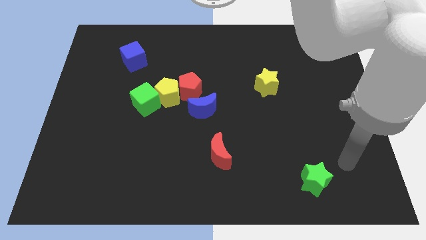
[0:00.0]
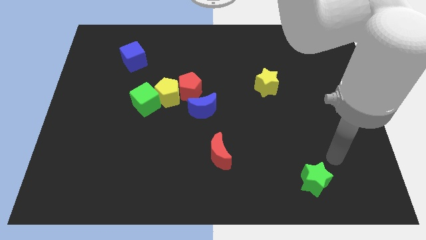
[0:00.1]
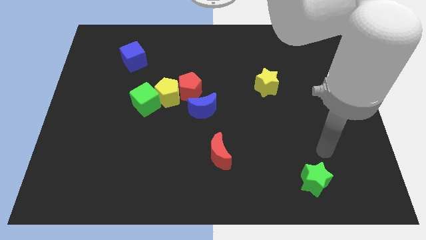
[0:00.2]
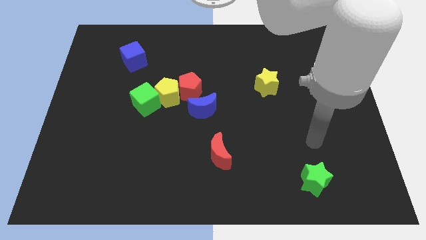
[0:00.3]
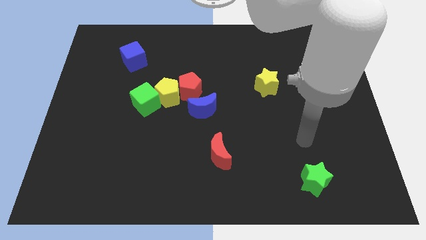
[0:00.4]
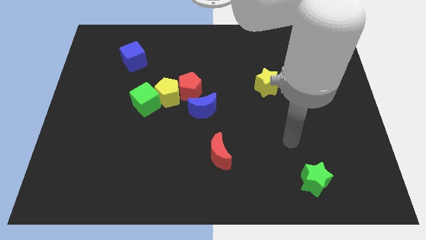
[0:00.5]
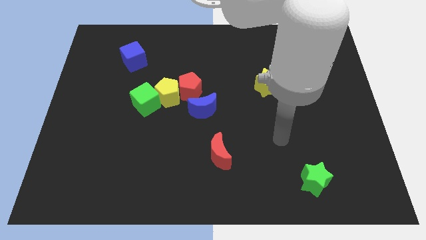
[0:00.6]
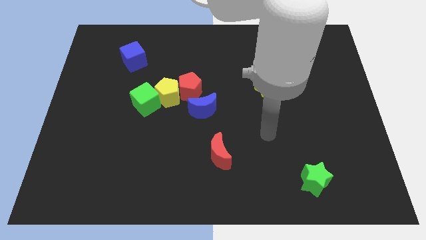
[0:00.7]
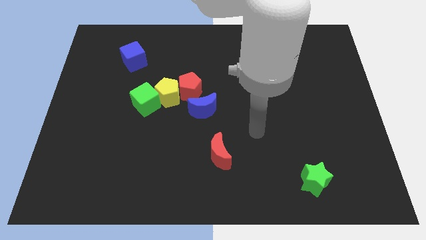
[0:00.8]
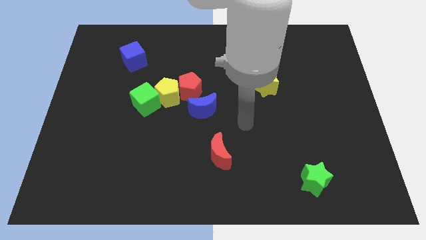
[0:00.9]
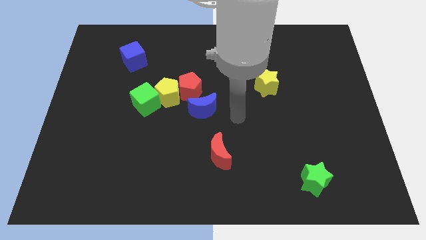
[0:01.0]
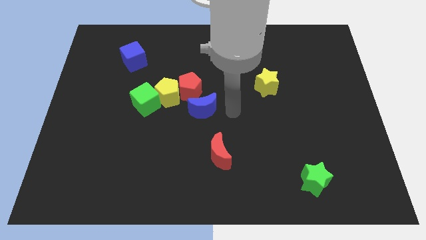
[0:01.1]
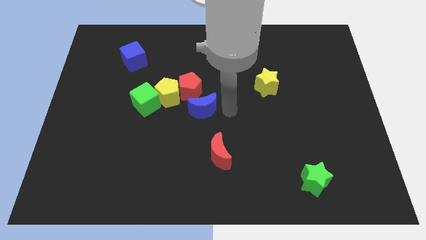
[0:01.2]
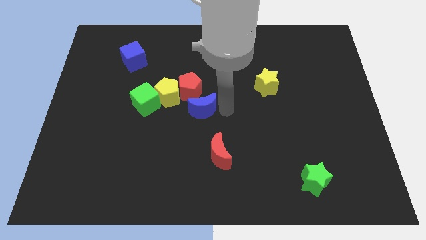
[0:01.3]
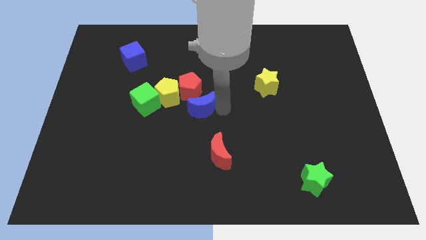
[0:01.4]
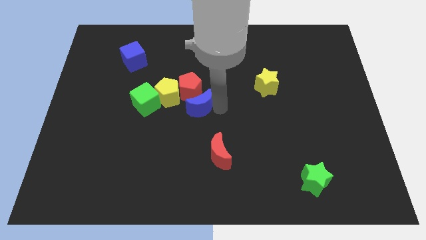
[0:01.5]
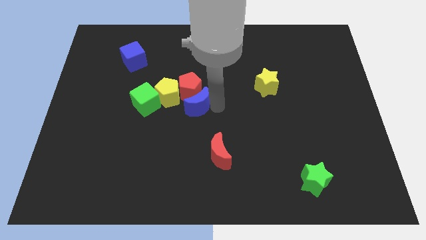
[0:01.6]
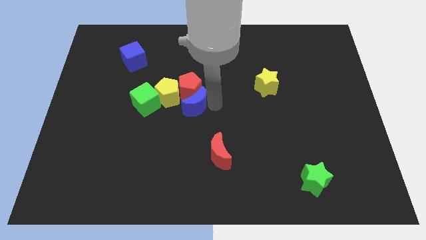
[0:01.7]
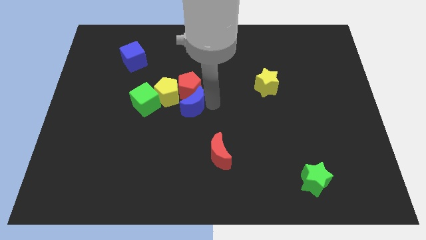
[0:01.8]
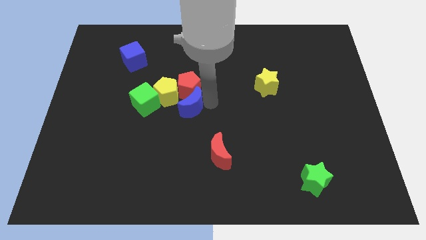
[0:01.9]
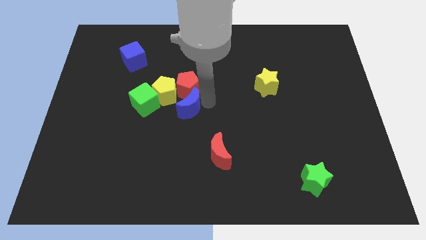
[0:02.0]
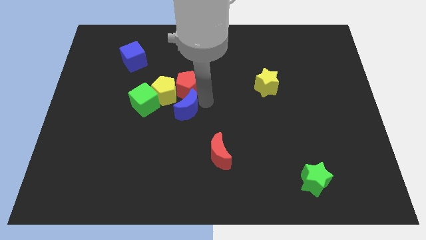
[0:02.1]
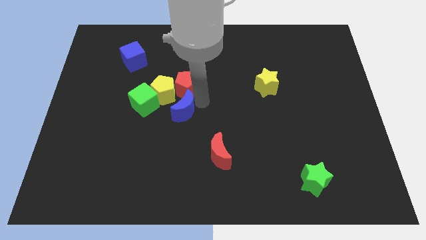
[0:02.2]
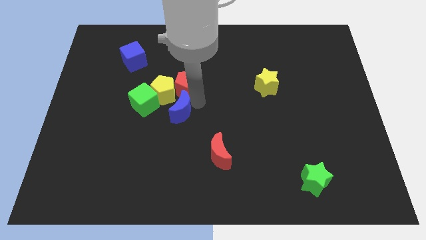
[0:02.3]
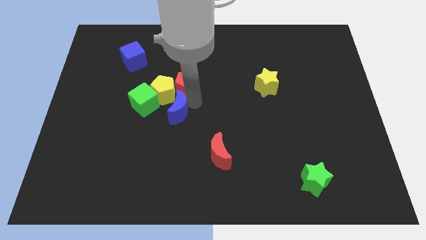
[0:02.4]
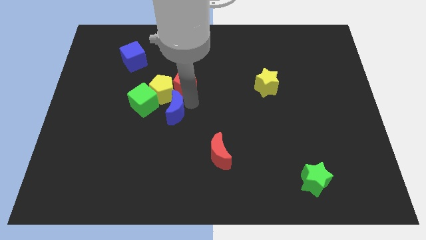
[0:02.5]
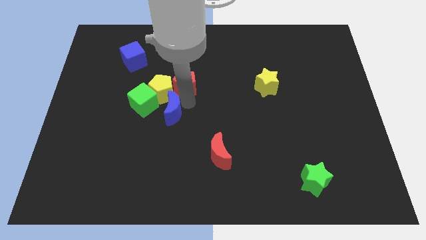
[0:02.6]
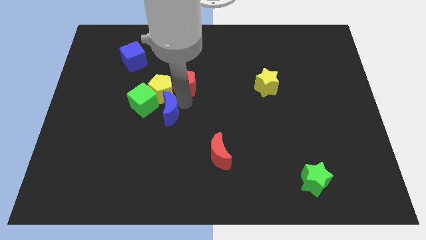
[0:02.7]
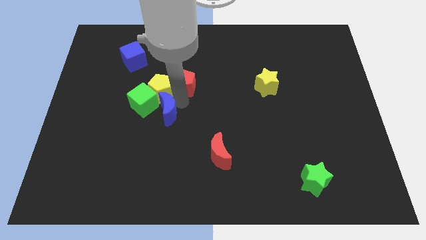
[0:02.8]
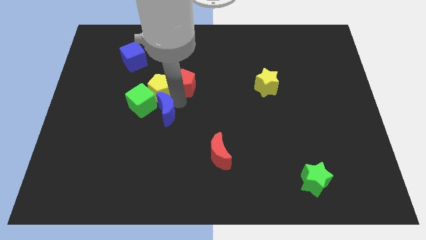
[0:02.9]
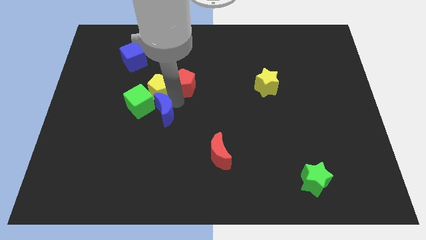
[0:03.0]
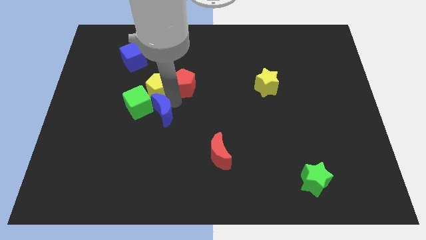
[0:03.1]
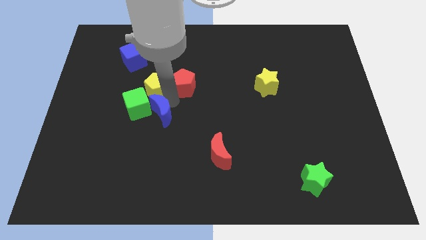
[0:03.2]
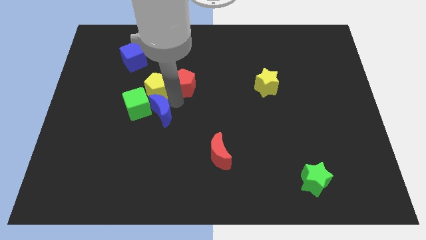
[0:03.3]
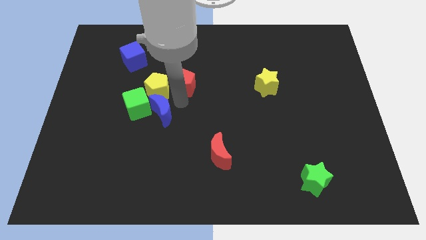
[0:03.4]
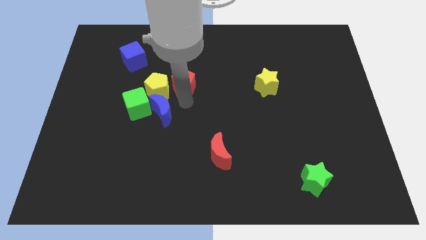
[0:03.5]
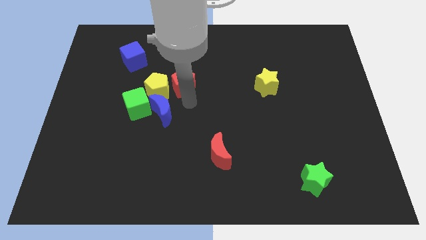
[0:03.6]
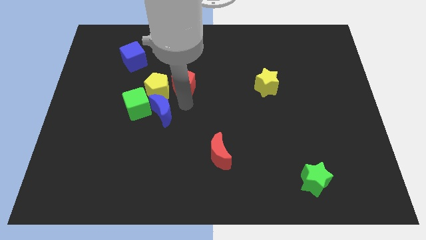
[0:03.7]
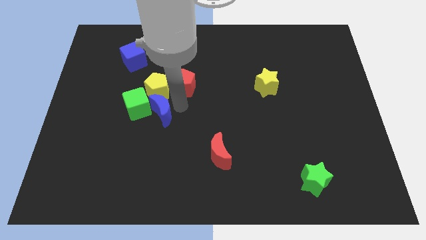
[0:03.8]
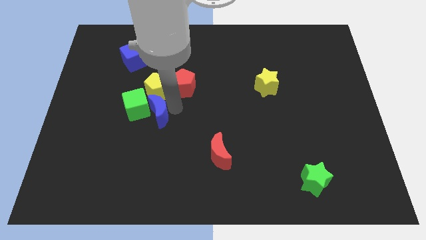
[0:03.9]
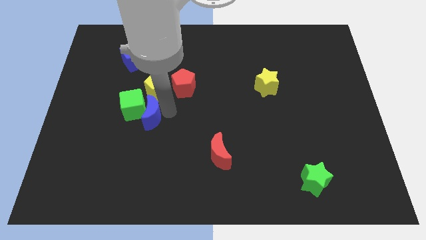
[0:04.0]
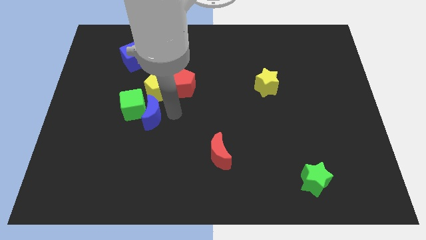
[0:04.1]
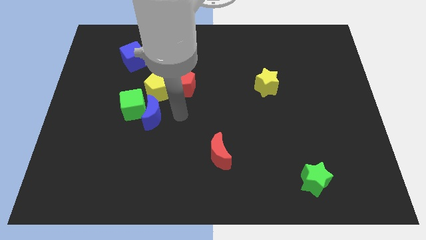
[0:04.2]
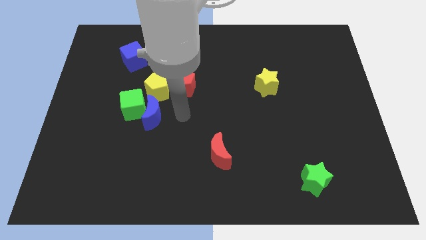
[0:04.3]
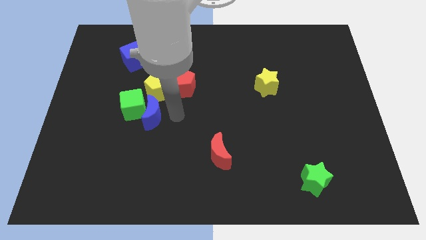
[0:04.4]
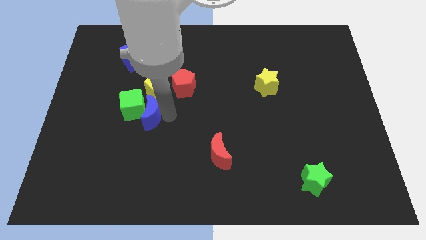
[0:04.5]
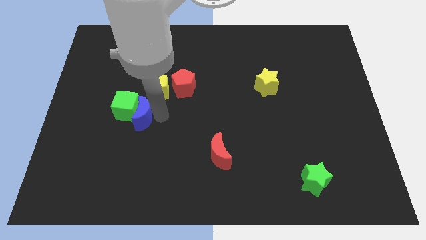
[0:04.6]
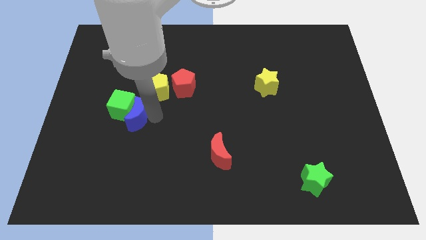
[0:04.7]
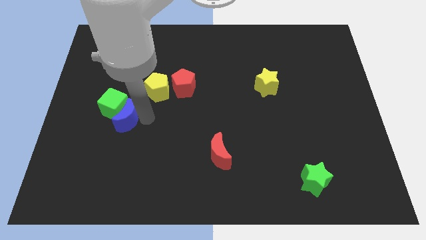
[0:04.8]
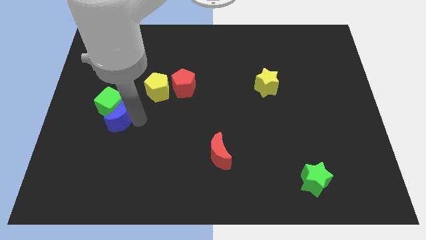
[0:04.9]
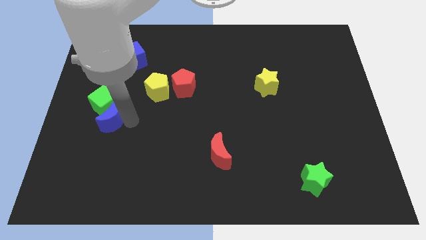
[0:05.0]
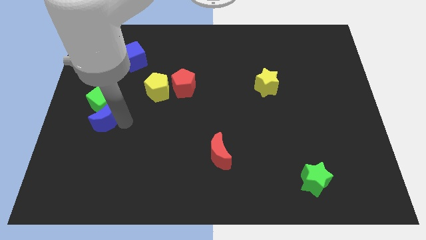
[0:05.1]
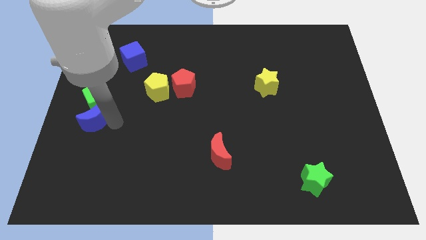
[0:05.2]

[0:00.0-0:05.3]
put the blue moon to the center left

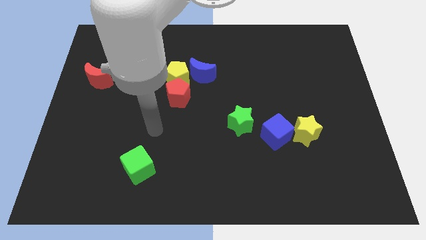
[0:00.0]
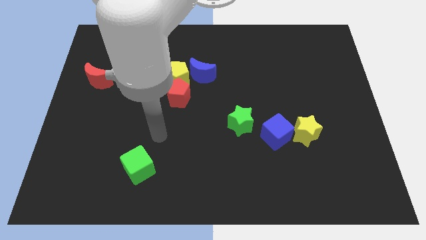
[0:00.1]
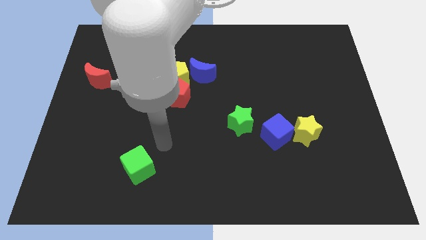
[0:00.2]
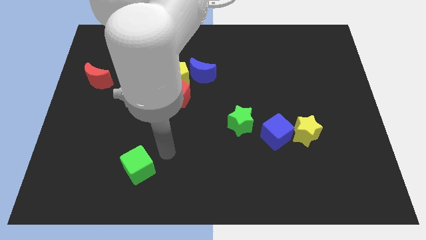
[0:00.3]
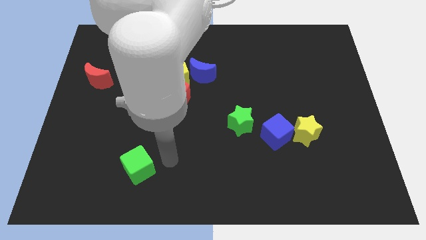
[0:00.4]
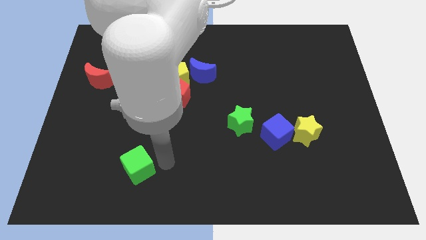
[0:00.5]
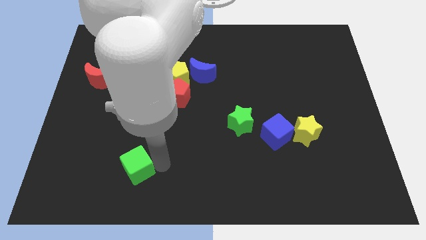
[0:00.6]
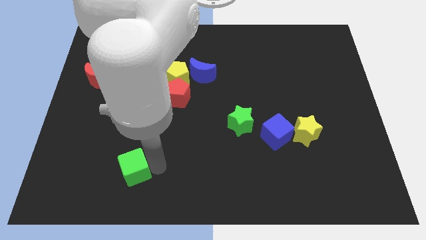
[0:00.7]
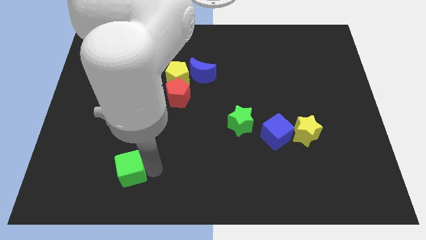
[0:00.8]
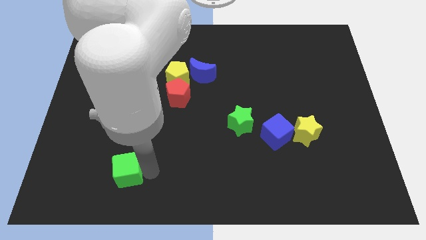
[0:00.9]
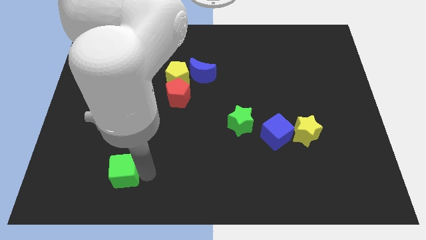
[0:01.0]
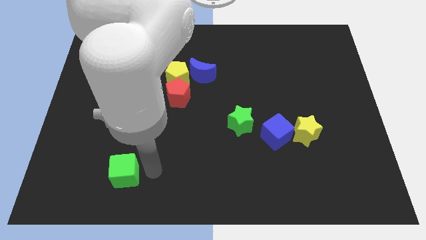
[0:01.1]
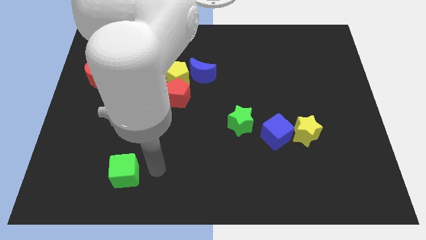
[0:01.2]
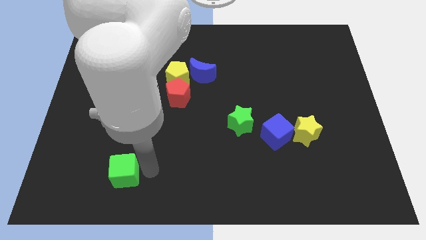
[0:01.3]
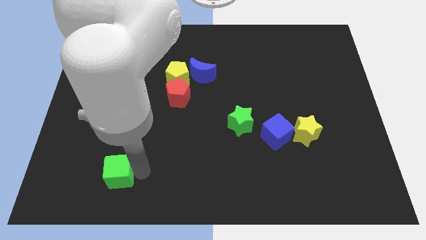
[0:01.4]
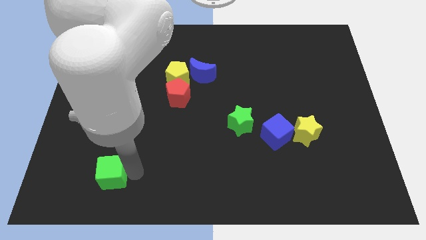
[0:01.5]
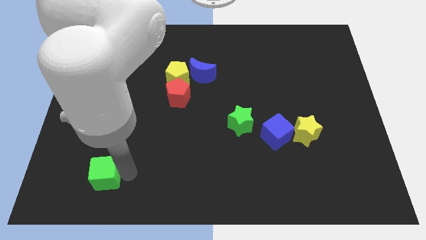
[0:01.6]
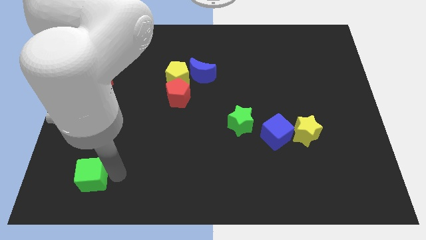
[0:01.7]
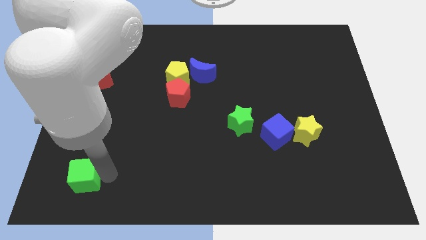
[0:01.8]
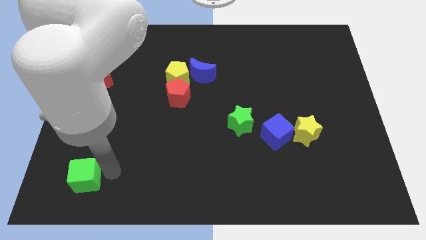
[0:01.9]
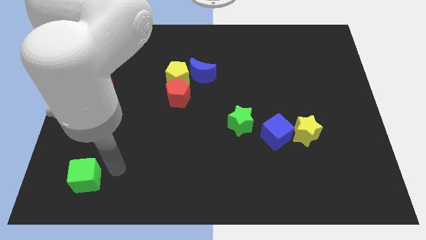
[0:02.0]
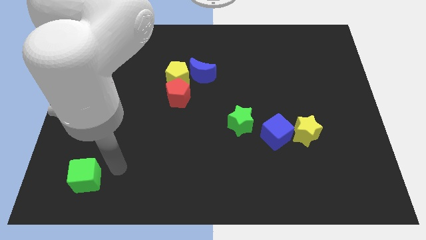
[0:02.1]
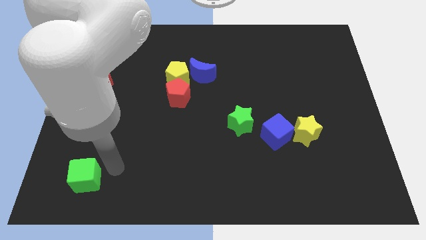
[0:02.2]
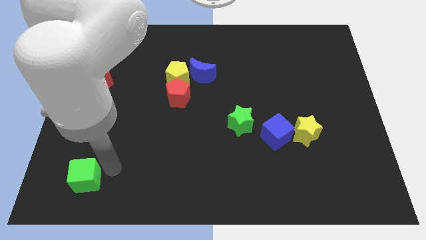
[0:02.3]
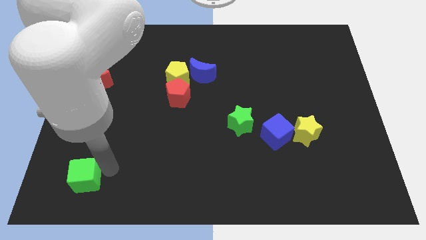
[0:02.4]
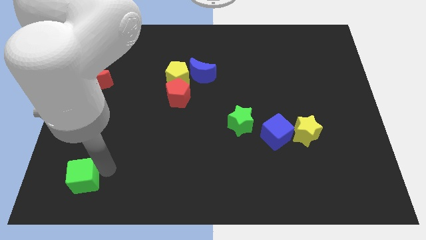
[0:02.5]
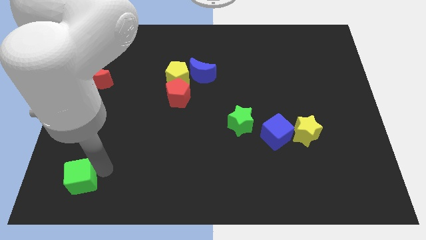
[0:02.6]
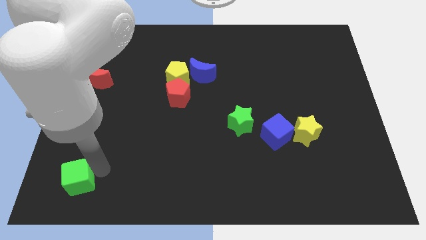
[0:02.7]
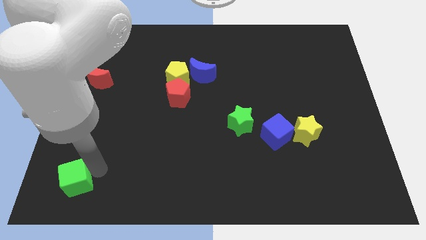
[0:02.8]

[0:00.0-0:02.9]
push the green cube to the lower left corner
